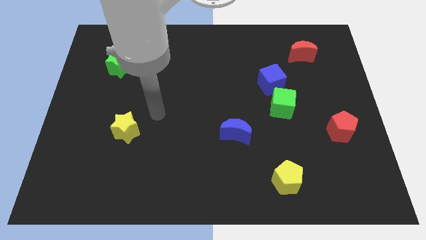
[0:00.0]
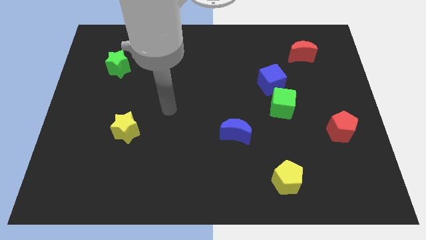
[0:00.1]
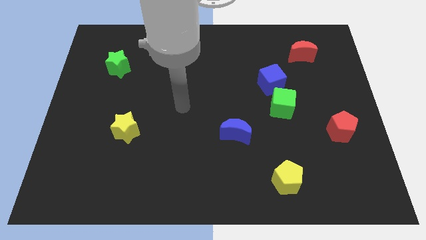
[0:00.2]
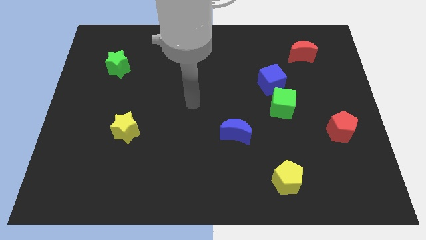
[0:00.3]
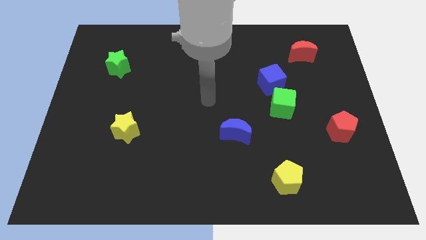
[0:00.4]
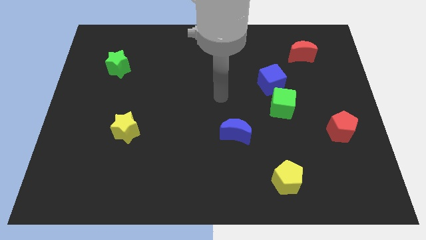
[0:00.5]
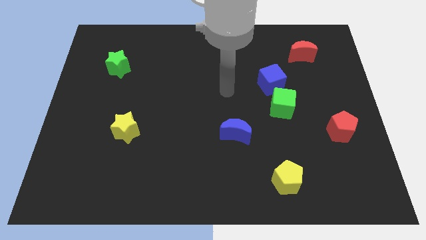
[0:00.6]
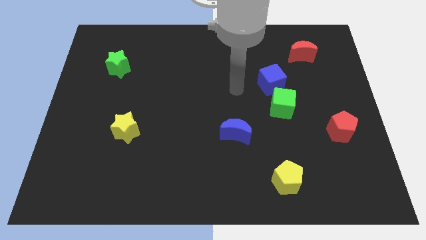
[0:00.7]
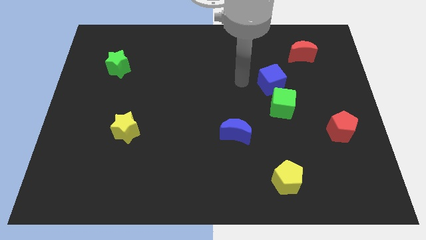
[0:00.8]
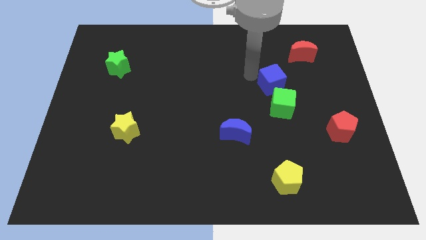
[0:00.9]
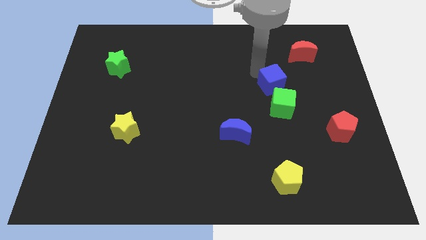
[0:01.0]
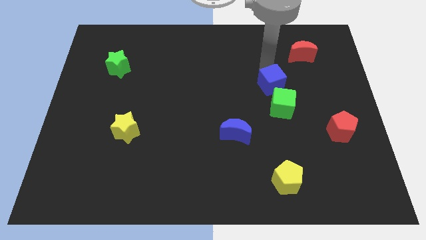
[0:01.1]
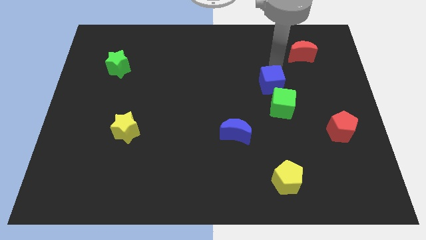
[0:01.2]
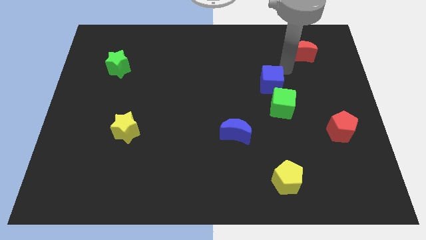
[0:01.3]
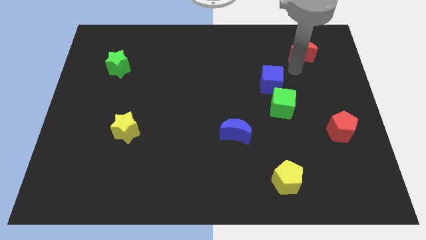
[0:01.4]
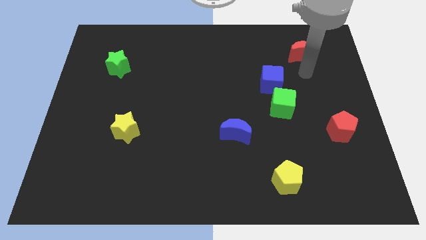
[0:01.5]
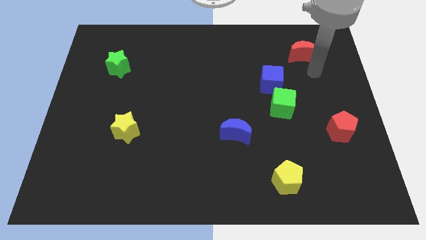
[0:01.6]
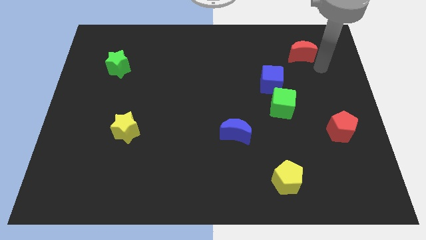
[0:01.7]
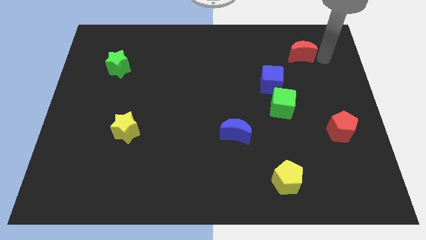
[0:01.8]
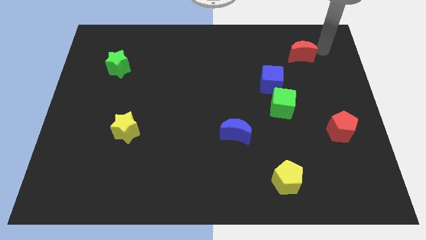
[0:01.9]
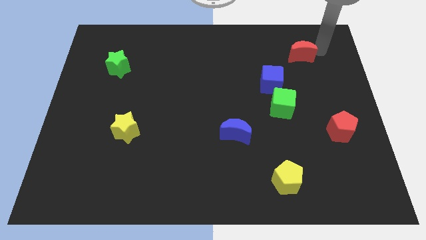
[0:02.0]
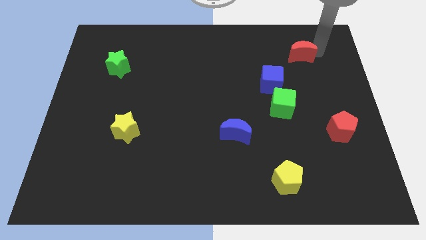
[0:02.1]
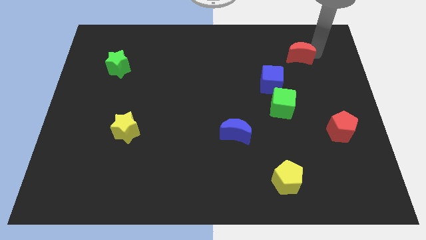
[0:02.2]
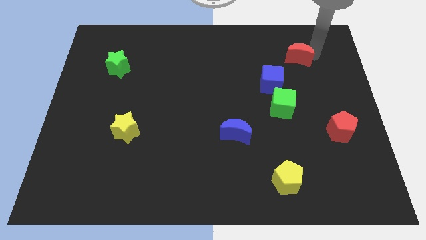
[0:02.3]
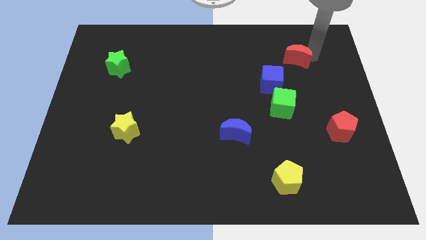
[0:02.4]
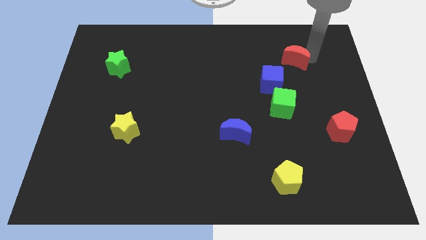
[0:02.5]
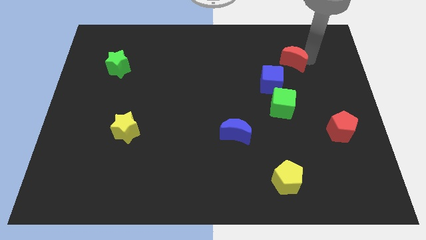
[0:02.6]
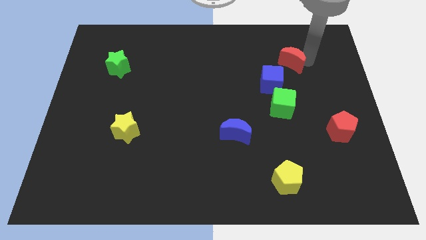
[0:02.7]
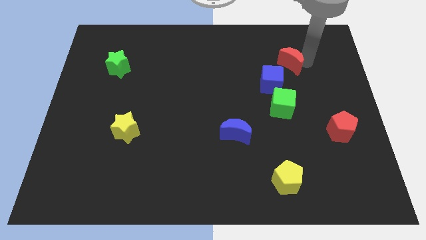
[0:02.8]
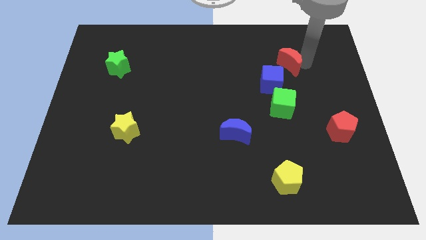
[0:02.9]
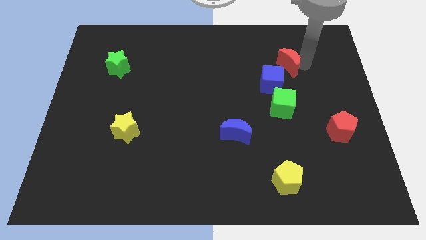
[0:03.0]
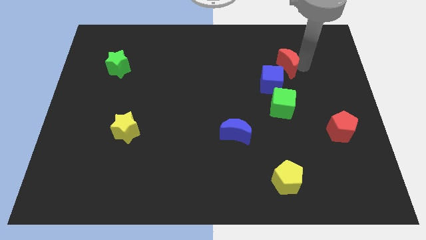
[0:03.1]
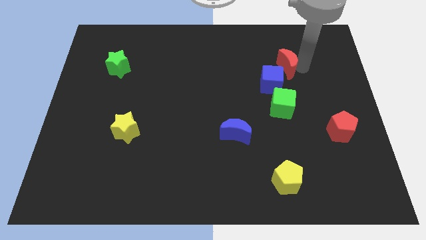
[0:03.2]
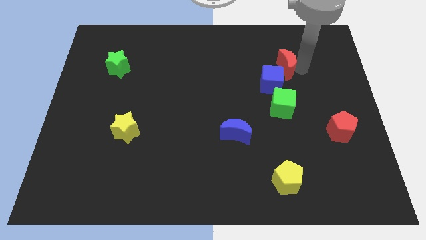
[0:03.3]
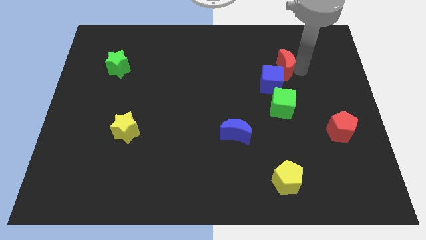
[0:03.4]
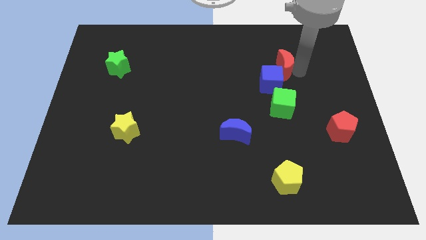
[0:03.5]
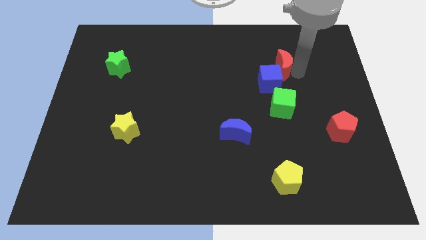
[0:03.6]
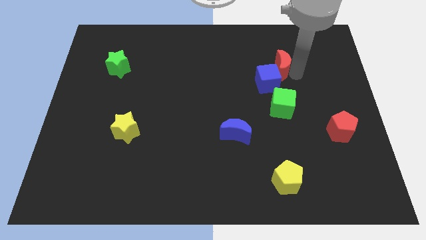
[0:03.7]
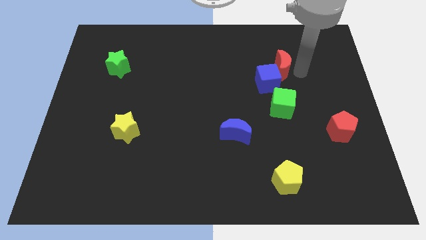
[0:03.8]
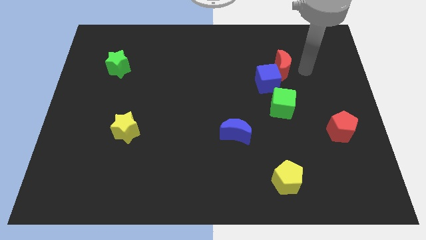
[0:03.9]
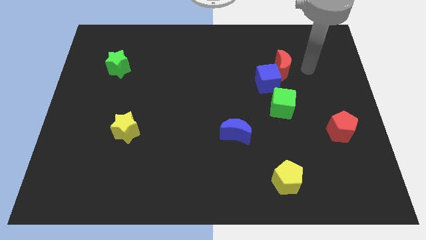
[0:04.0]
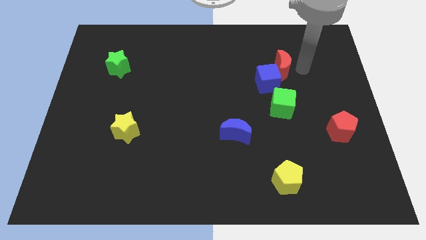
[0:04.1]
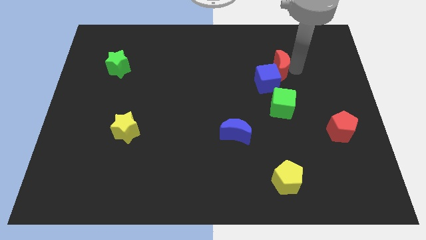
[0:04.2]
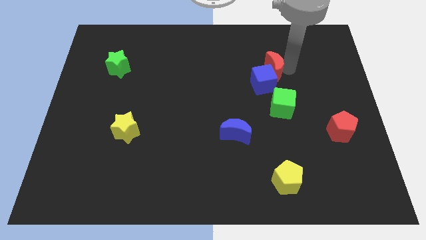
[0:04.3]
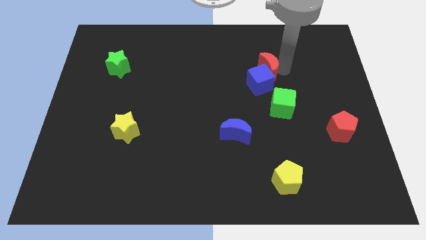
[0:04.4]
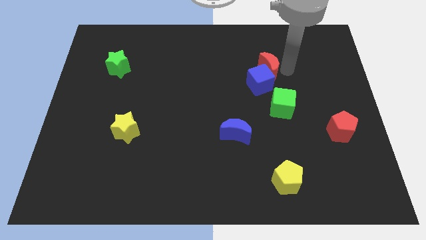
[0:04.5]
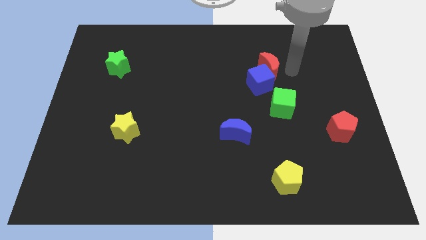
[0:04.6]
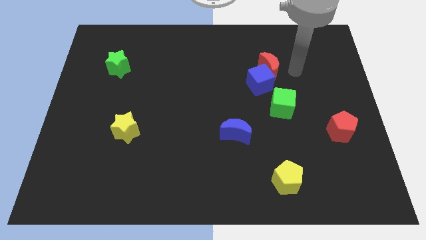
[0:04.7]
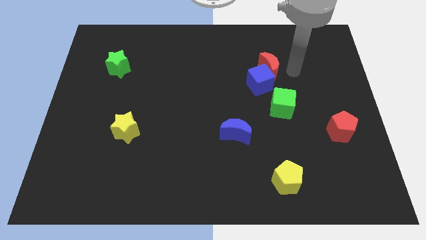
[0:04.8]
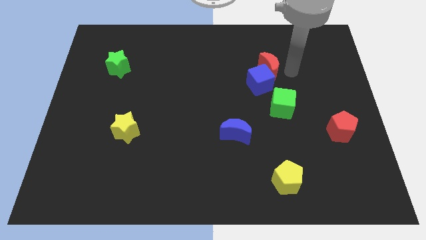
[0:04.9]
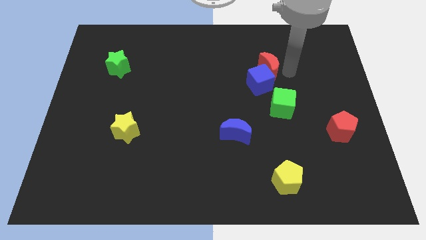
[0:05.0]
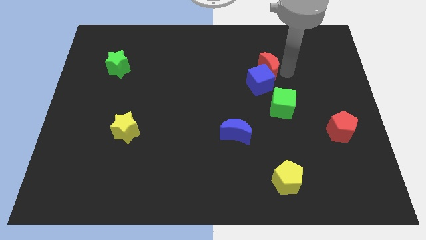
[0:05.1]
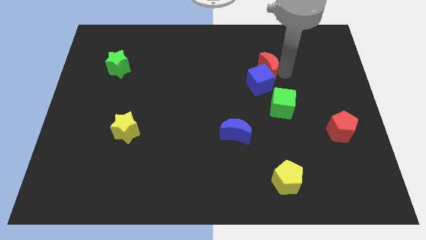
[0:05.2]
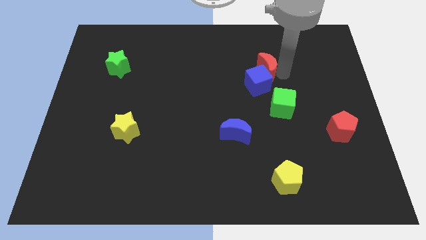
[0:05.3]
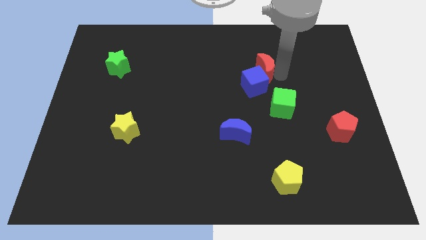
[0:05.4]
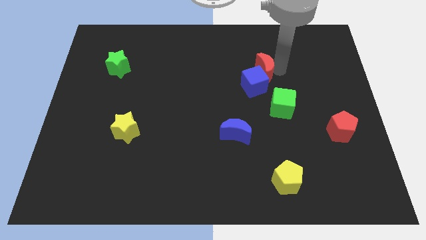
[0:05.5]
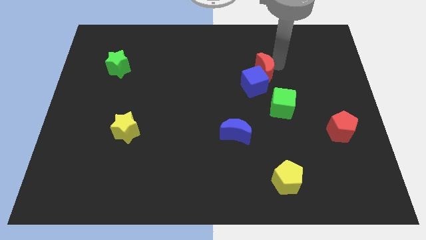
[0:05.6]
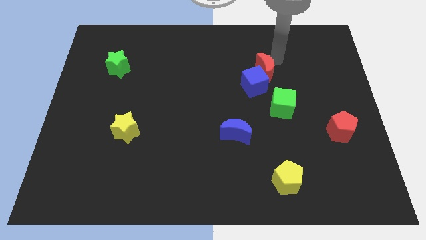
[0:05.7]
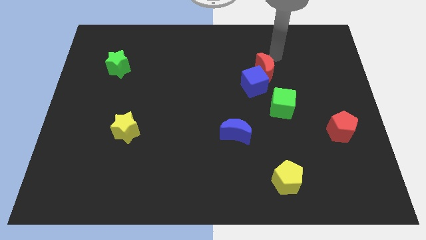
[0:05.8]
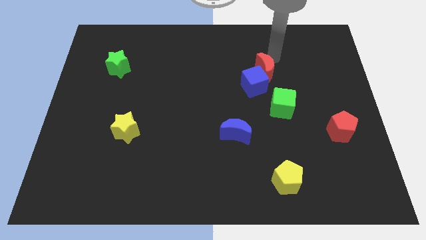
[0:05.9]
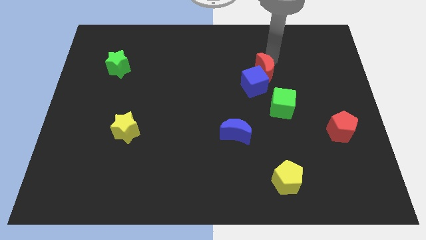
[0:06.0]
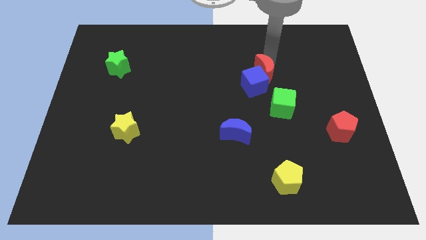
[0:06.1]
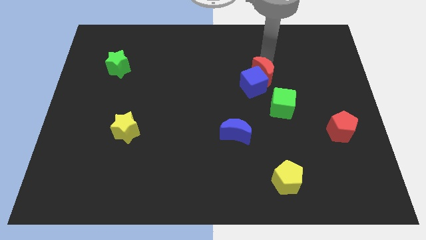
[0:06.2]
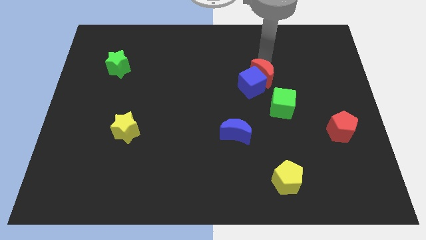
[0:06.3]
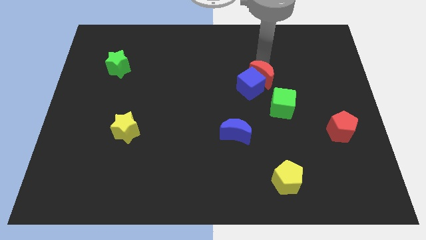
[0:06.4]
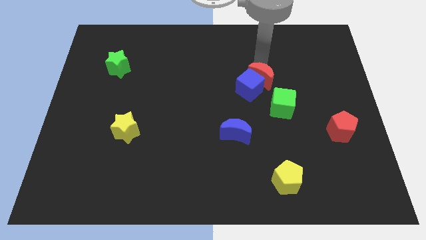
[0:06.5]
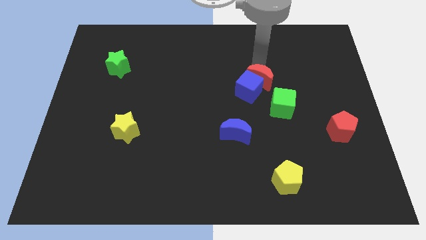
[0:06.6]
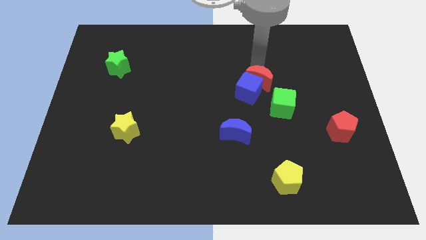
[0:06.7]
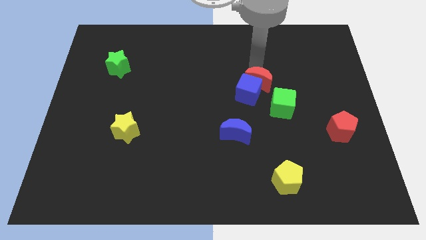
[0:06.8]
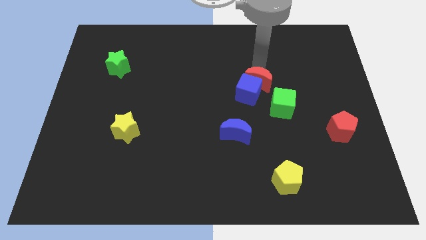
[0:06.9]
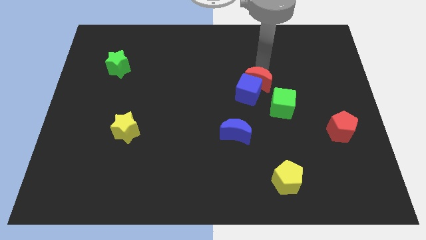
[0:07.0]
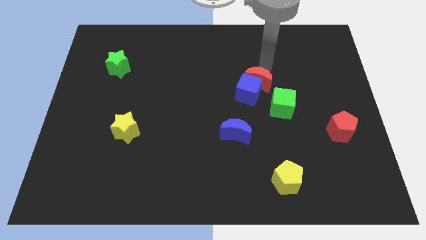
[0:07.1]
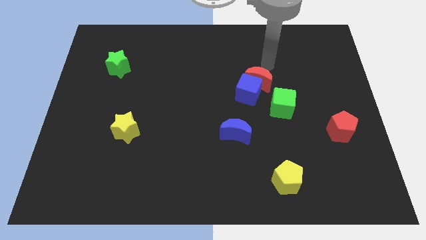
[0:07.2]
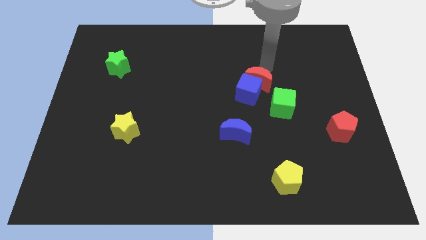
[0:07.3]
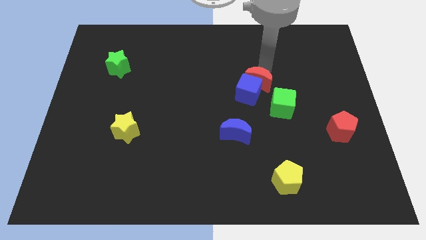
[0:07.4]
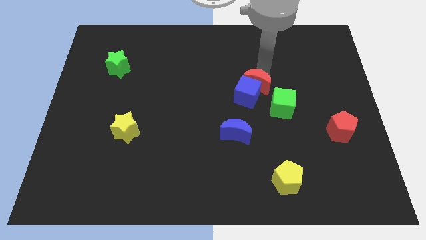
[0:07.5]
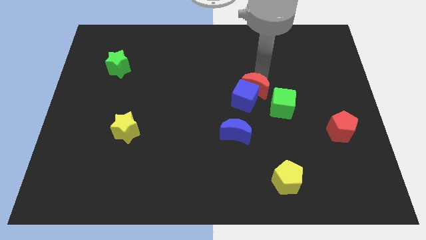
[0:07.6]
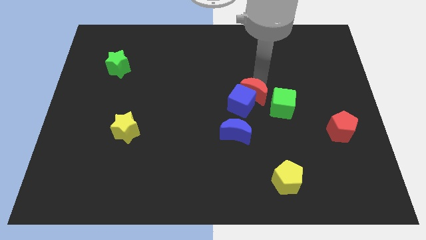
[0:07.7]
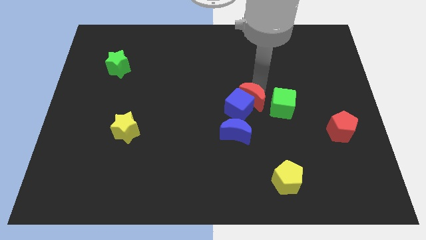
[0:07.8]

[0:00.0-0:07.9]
push the red moon down and left

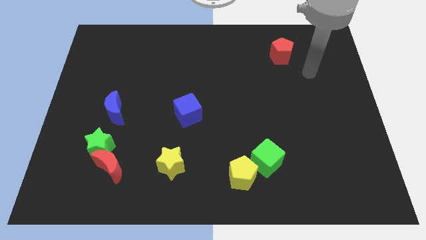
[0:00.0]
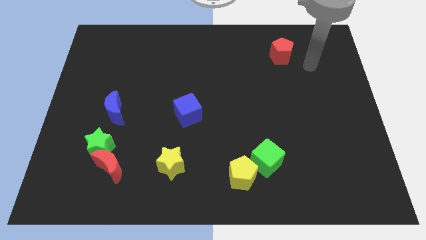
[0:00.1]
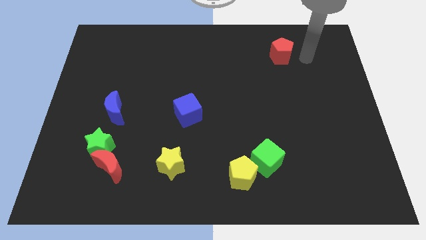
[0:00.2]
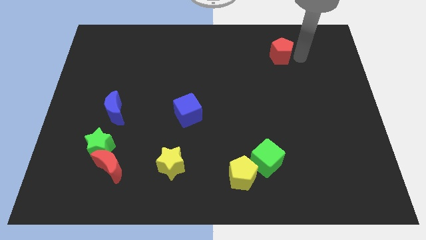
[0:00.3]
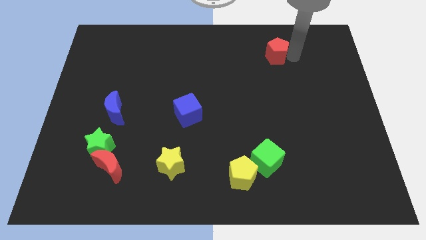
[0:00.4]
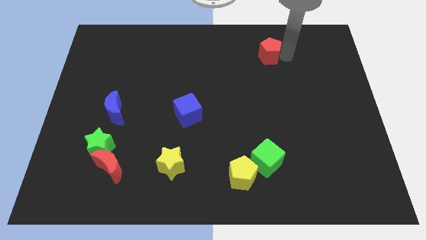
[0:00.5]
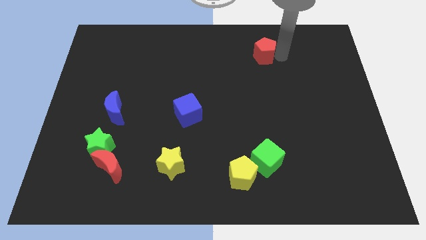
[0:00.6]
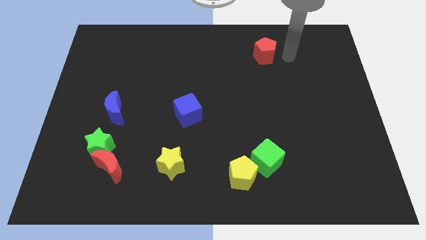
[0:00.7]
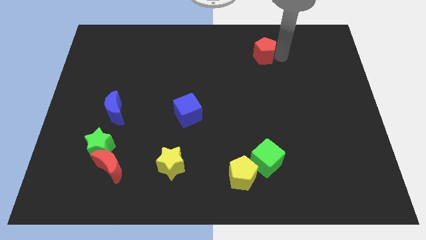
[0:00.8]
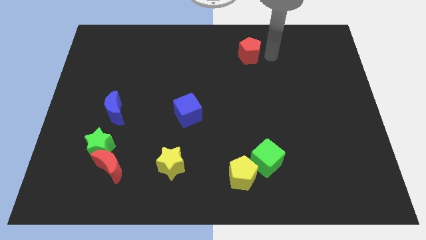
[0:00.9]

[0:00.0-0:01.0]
slide the red pentagon somewhat left
